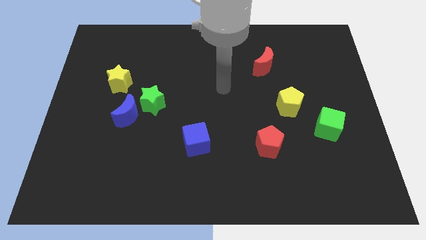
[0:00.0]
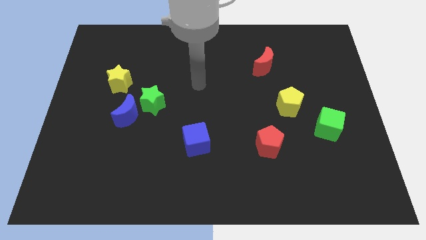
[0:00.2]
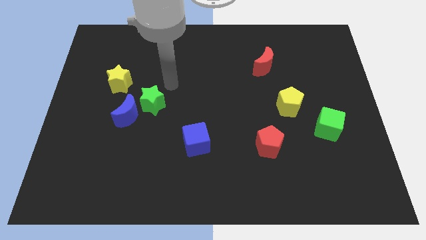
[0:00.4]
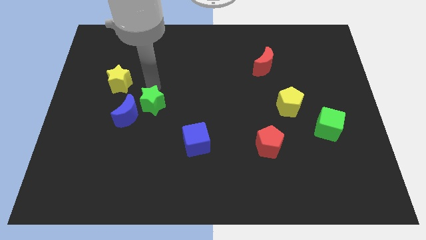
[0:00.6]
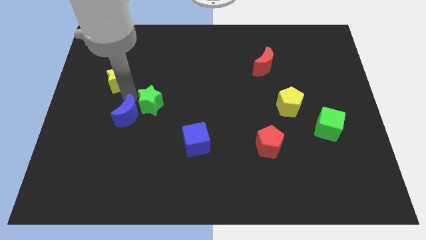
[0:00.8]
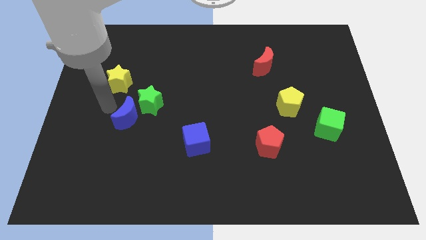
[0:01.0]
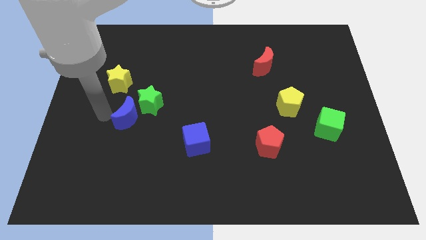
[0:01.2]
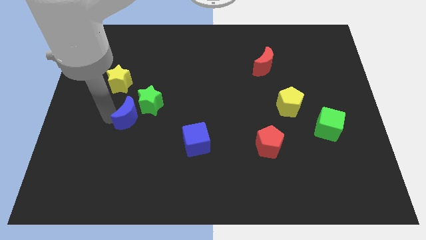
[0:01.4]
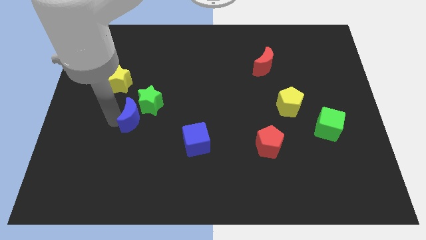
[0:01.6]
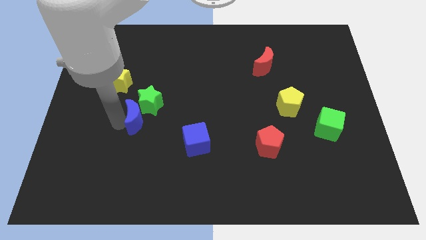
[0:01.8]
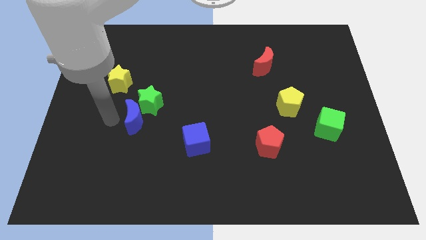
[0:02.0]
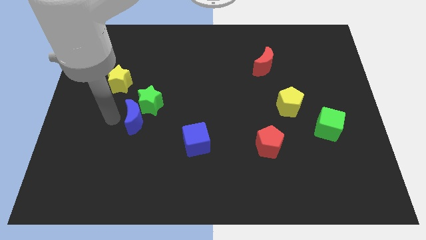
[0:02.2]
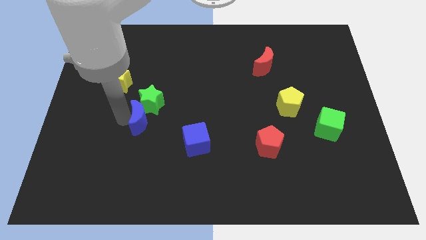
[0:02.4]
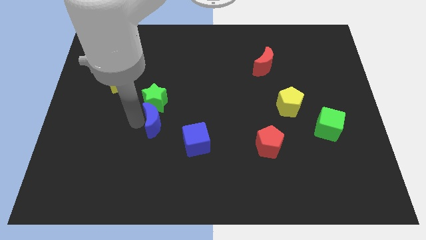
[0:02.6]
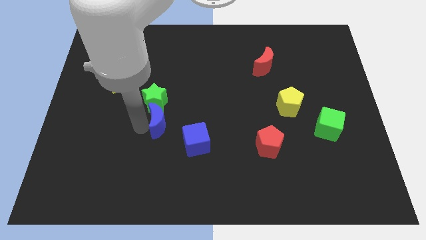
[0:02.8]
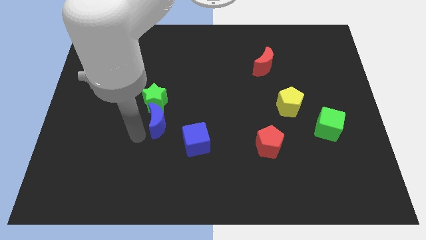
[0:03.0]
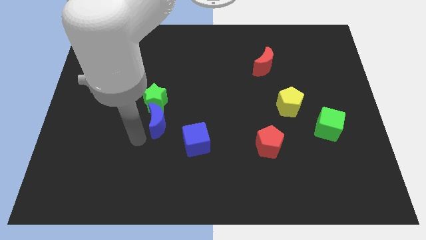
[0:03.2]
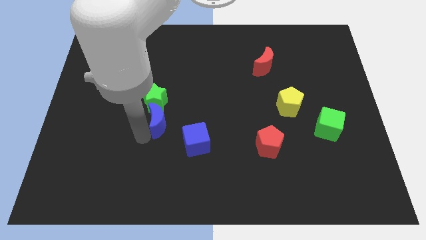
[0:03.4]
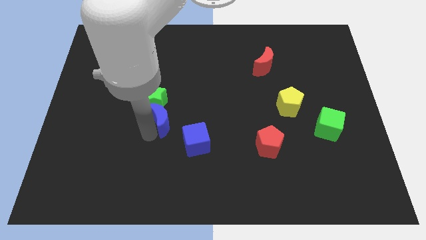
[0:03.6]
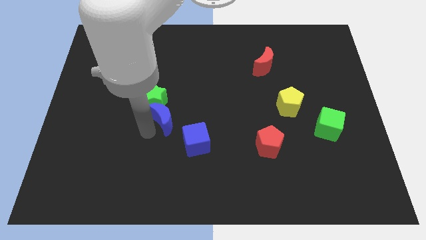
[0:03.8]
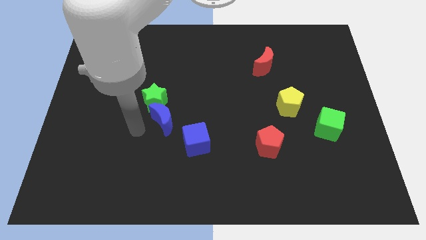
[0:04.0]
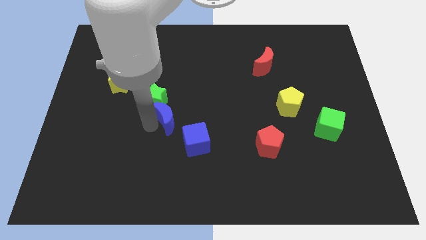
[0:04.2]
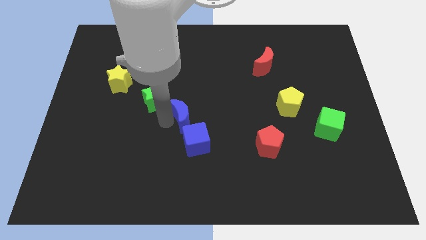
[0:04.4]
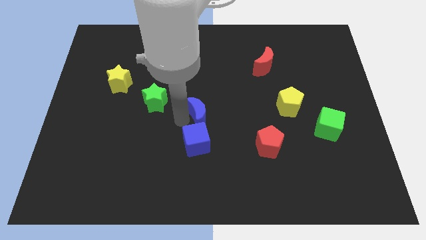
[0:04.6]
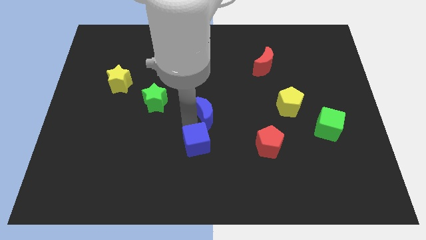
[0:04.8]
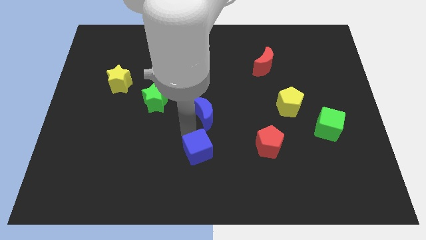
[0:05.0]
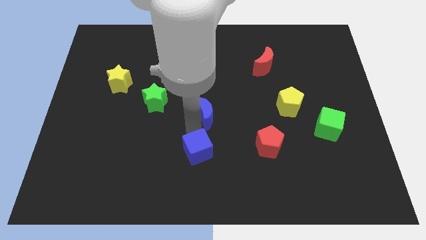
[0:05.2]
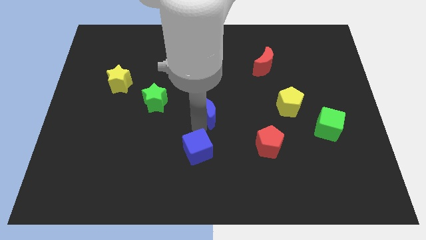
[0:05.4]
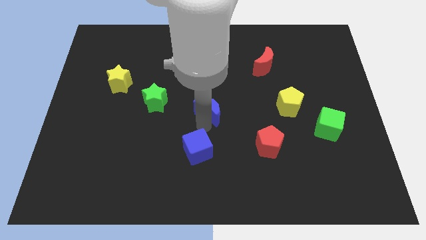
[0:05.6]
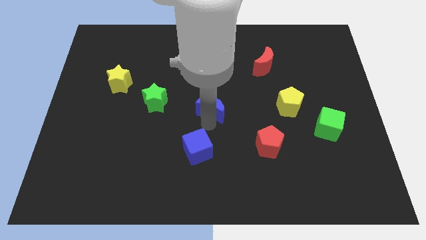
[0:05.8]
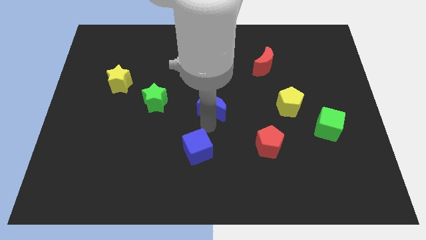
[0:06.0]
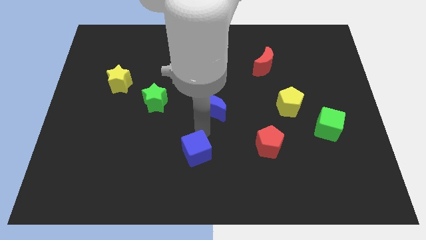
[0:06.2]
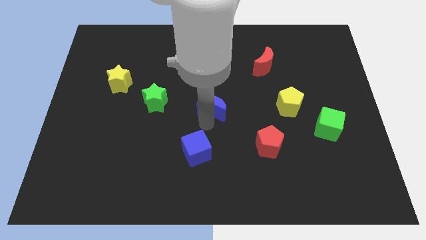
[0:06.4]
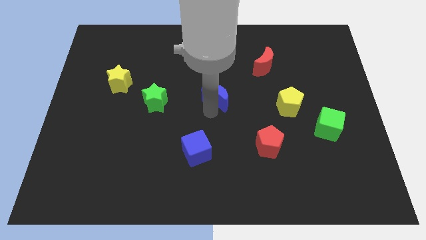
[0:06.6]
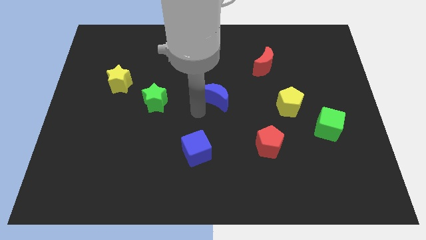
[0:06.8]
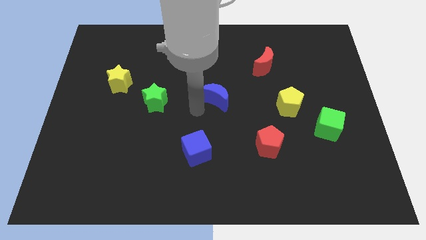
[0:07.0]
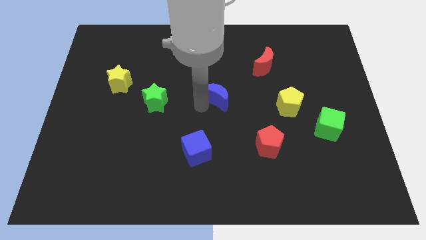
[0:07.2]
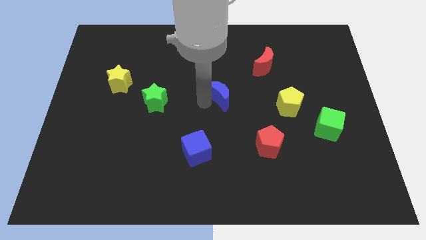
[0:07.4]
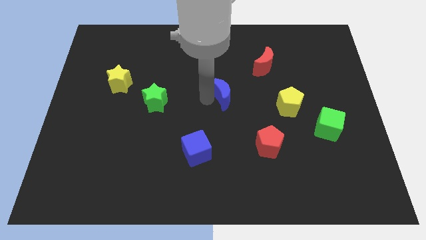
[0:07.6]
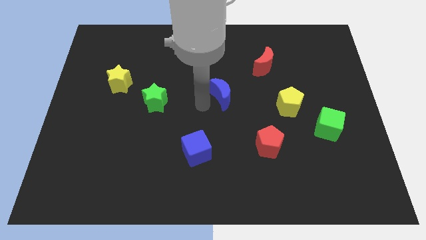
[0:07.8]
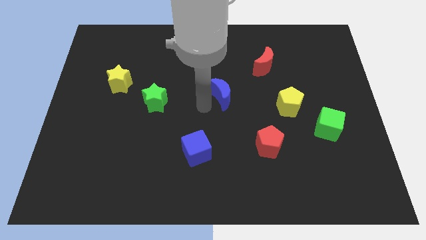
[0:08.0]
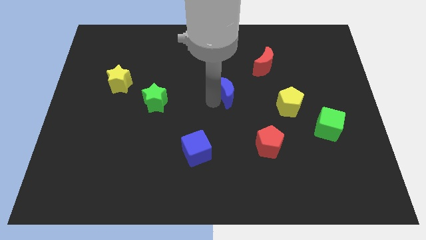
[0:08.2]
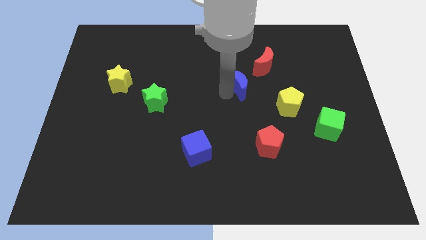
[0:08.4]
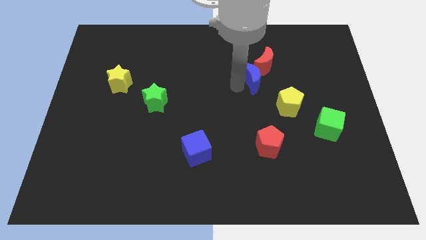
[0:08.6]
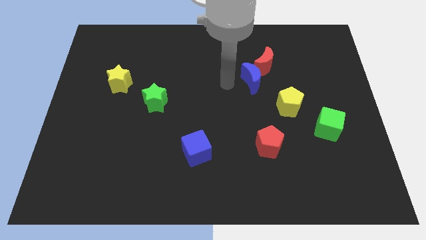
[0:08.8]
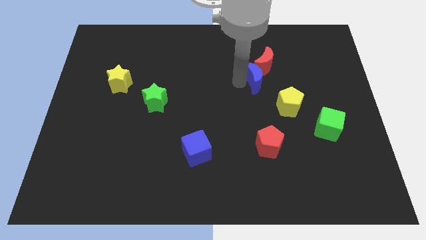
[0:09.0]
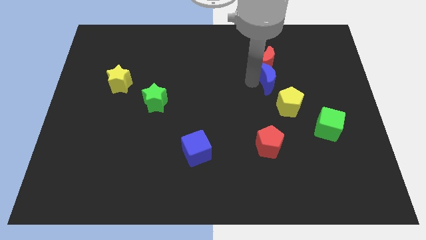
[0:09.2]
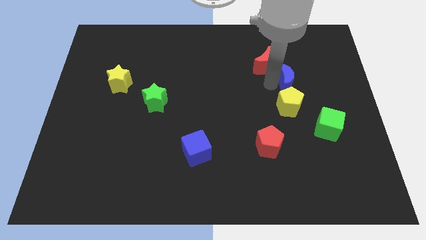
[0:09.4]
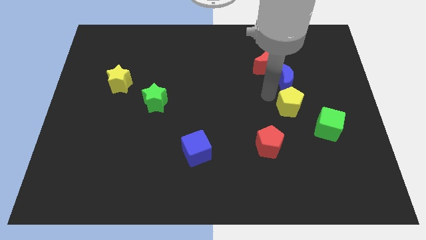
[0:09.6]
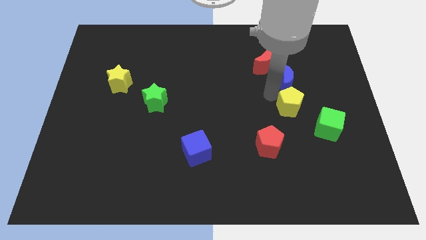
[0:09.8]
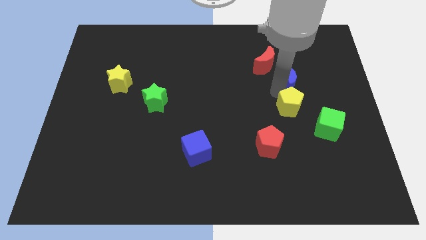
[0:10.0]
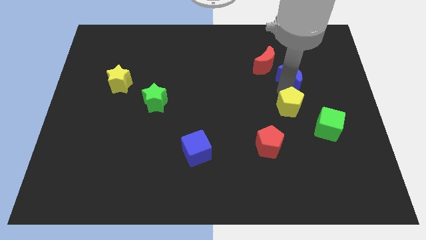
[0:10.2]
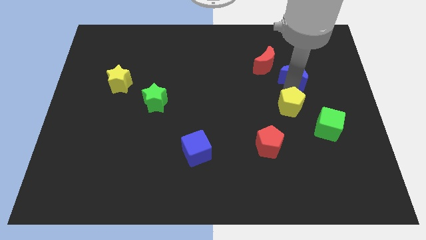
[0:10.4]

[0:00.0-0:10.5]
move the blue moon just right of the red moon

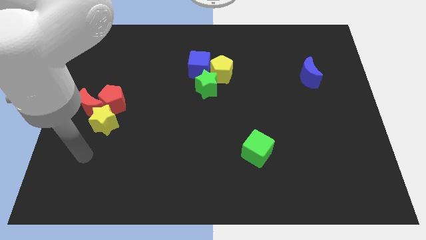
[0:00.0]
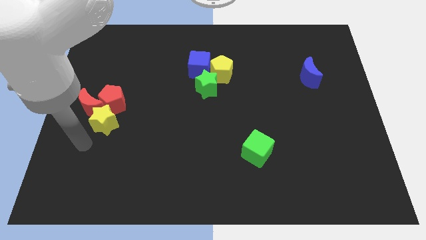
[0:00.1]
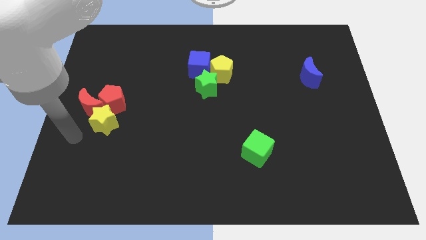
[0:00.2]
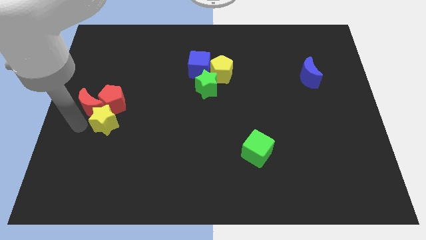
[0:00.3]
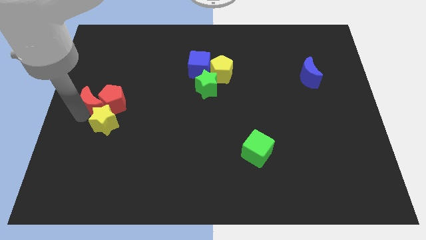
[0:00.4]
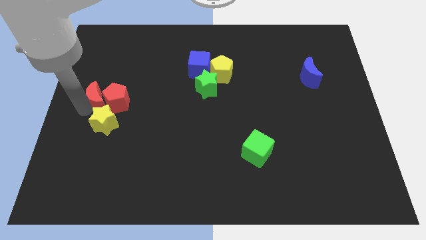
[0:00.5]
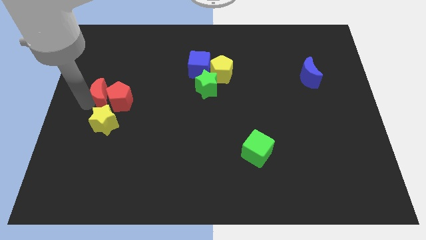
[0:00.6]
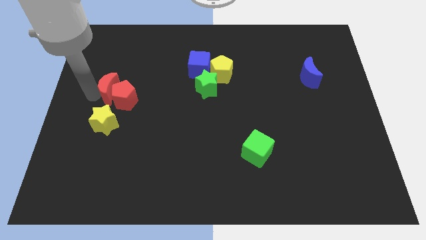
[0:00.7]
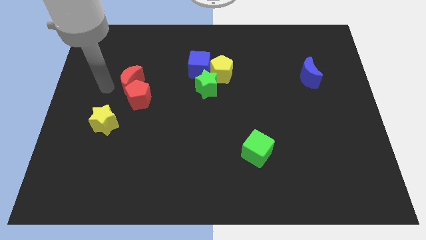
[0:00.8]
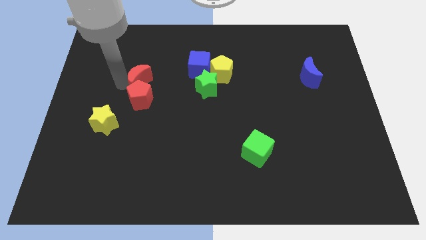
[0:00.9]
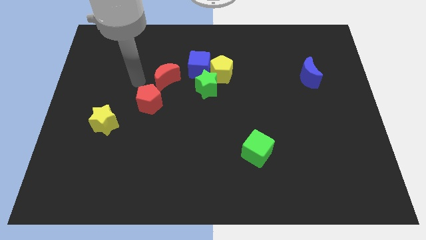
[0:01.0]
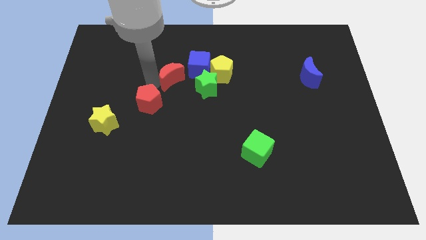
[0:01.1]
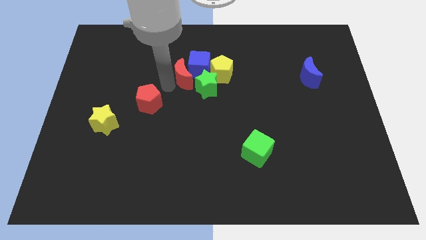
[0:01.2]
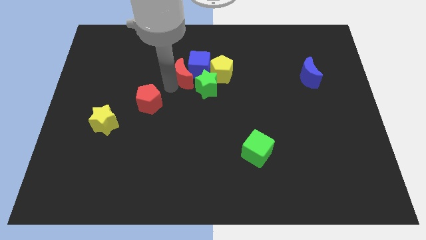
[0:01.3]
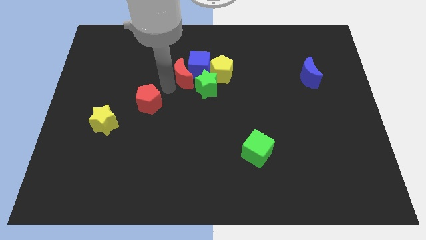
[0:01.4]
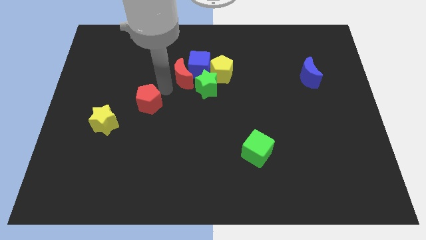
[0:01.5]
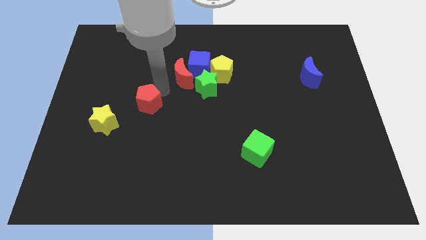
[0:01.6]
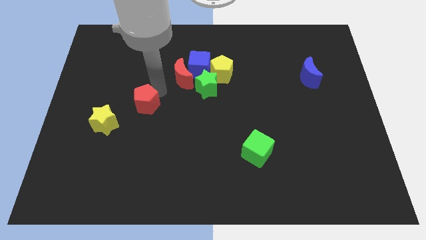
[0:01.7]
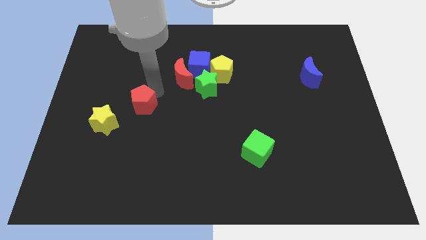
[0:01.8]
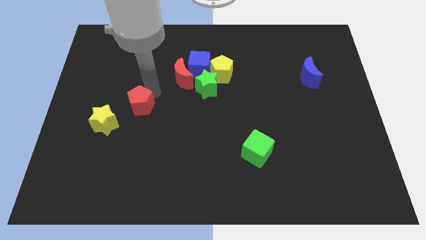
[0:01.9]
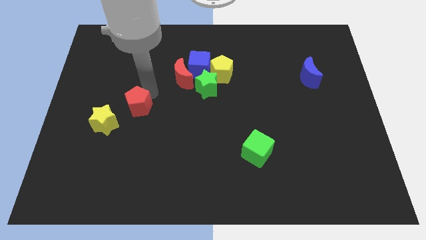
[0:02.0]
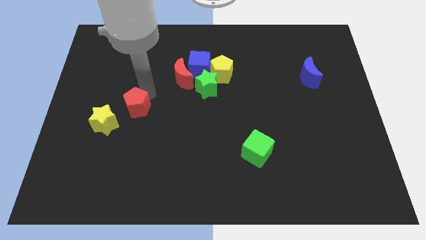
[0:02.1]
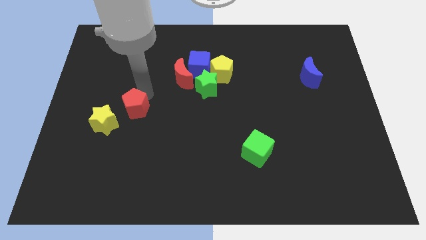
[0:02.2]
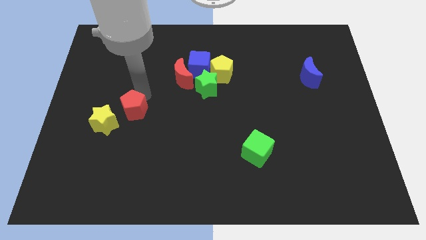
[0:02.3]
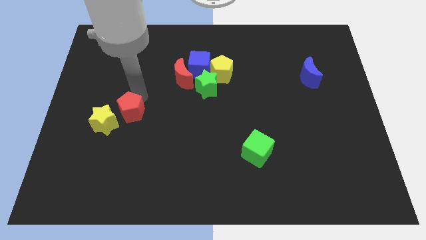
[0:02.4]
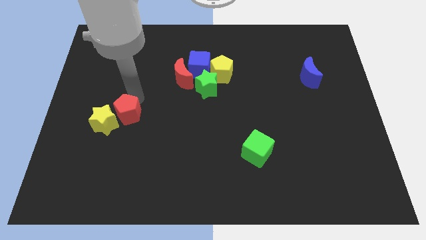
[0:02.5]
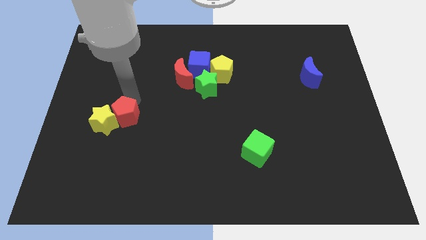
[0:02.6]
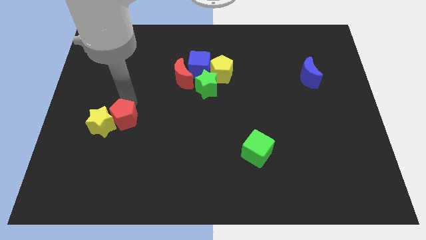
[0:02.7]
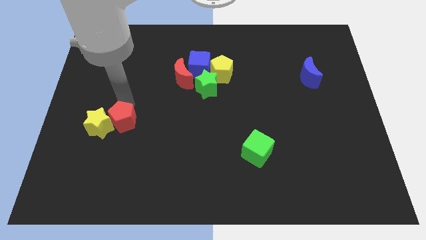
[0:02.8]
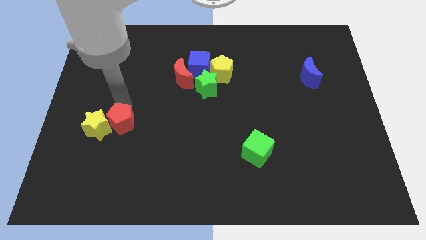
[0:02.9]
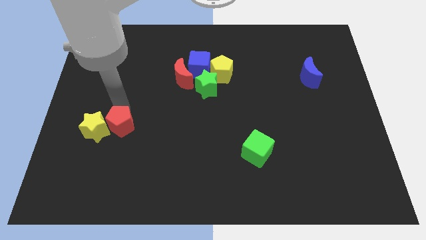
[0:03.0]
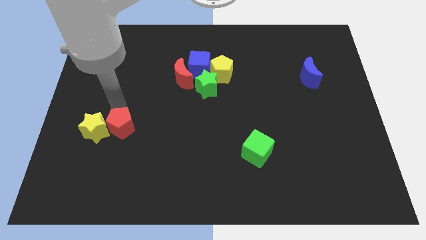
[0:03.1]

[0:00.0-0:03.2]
move the red pentagon to the bottom right of the yellow star
